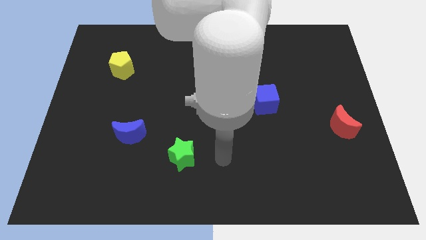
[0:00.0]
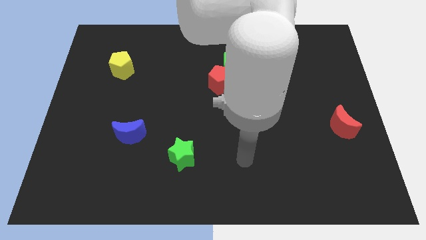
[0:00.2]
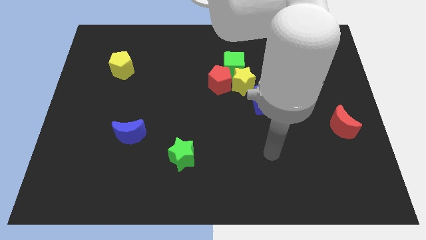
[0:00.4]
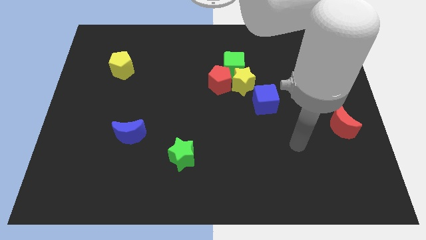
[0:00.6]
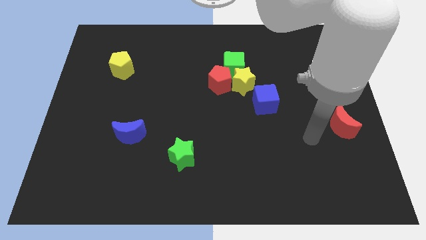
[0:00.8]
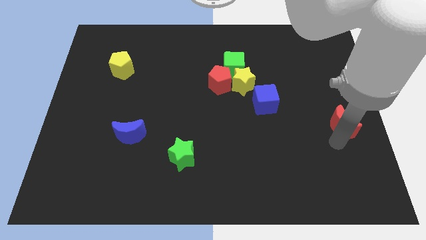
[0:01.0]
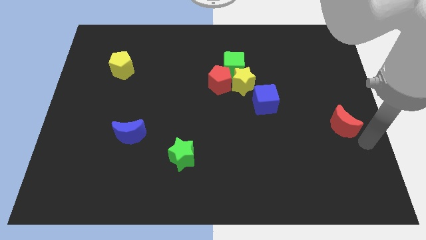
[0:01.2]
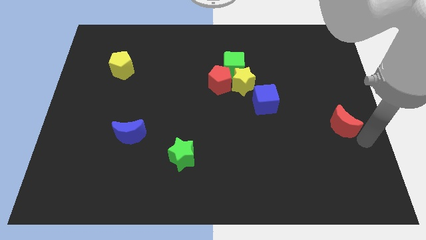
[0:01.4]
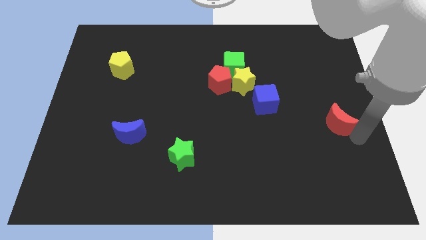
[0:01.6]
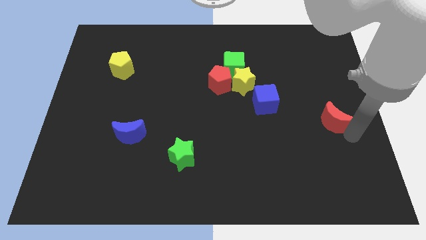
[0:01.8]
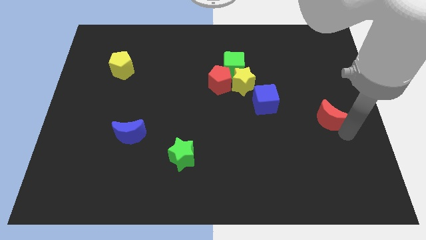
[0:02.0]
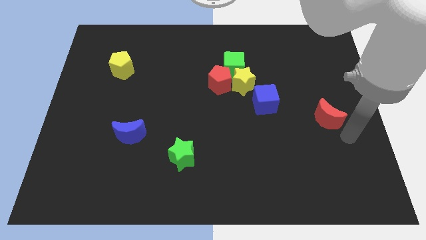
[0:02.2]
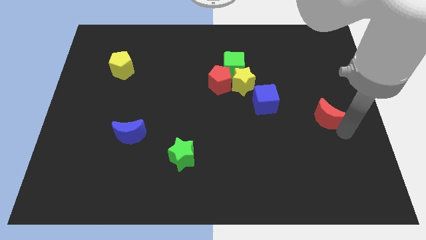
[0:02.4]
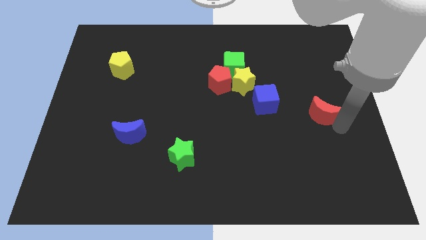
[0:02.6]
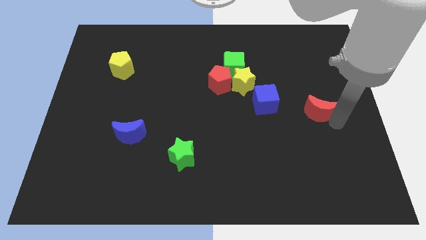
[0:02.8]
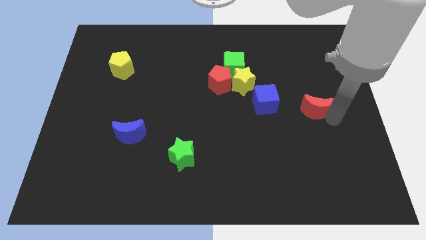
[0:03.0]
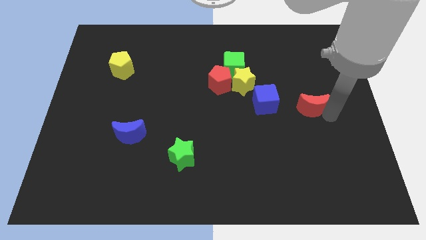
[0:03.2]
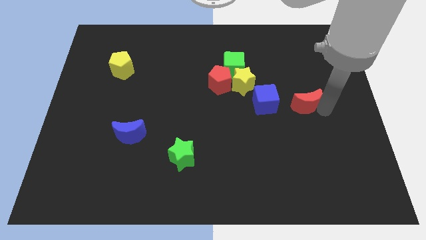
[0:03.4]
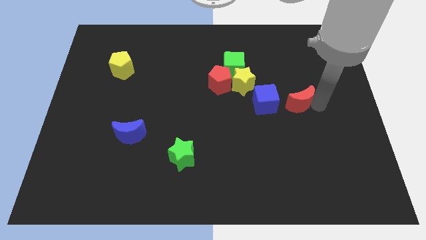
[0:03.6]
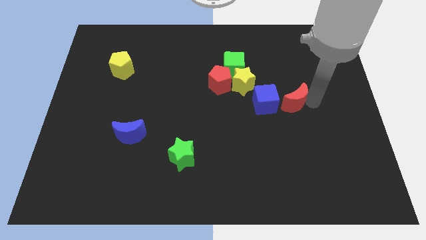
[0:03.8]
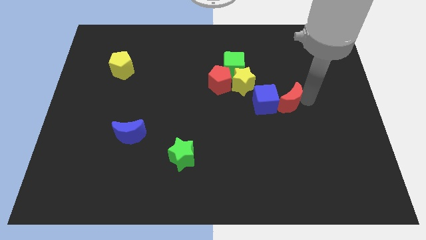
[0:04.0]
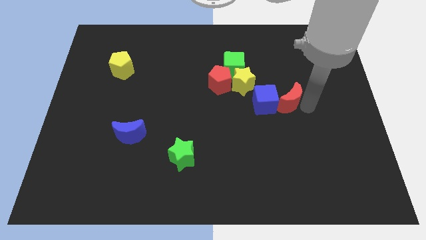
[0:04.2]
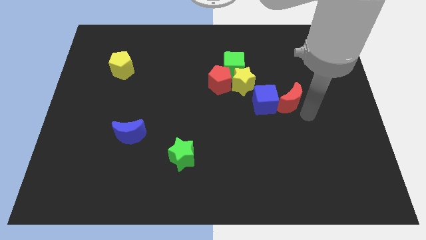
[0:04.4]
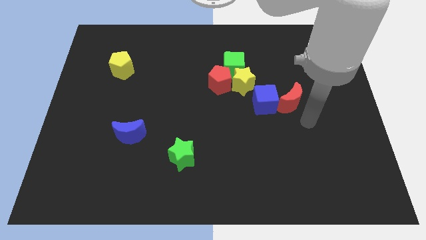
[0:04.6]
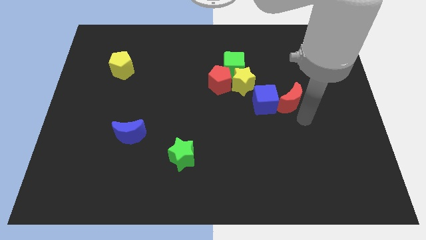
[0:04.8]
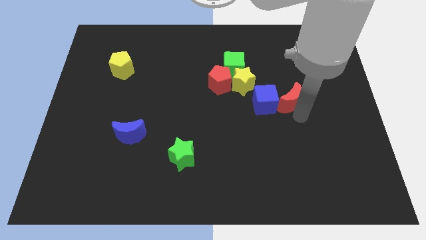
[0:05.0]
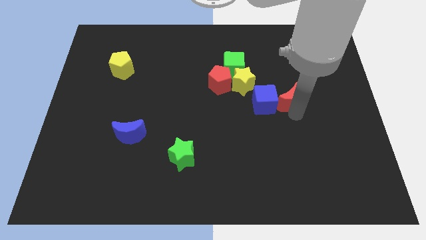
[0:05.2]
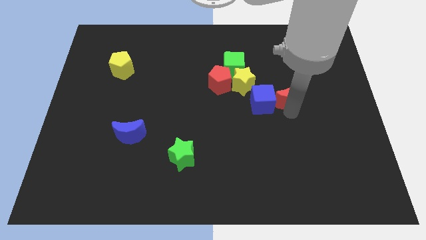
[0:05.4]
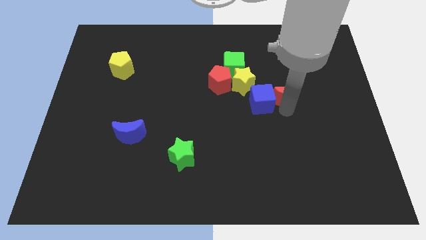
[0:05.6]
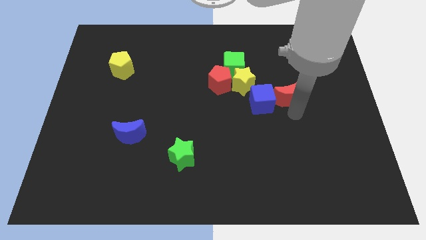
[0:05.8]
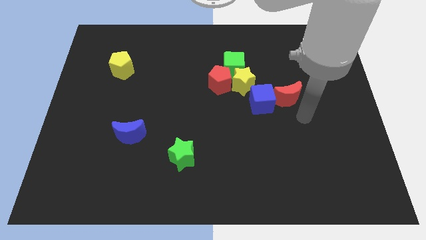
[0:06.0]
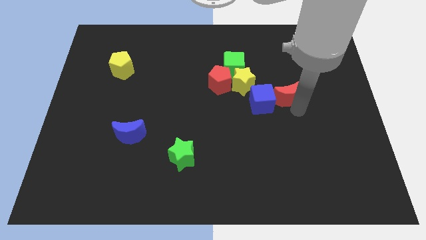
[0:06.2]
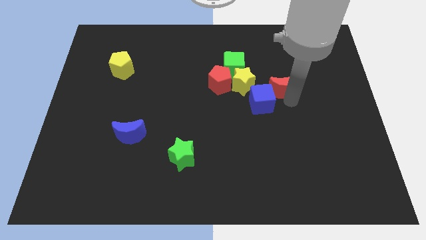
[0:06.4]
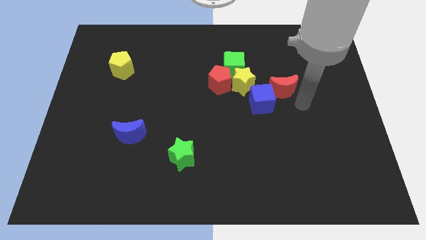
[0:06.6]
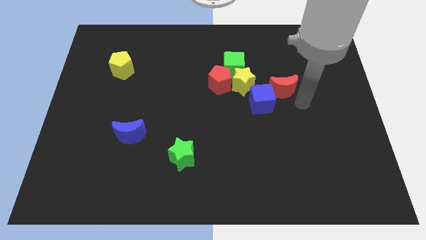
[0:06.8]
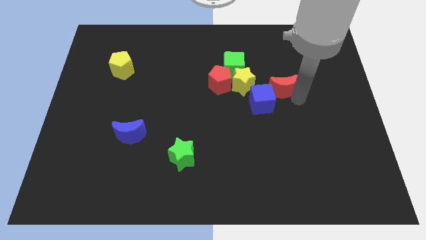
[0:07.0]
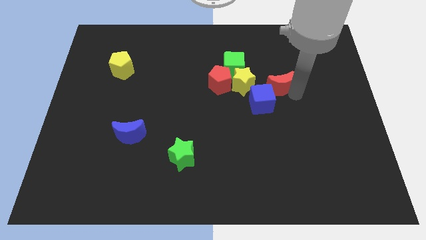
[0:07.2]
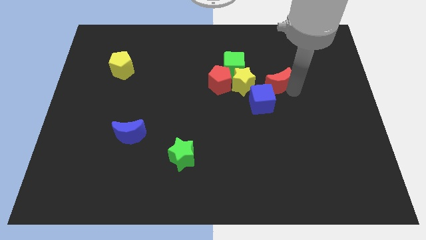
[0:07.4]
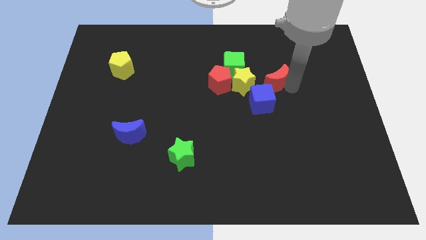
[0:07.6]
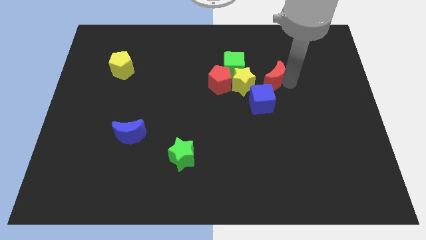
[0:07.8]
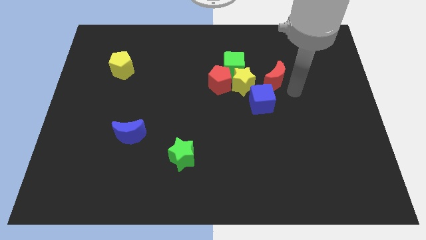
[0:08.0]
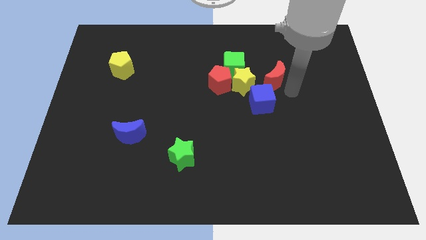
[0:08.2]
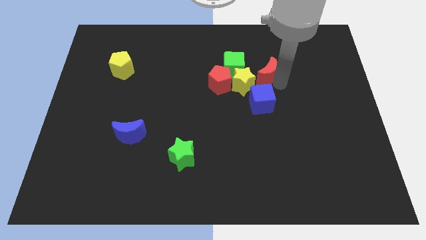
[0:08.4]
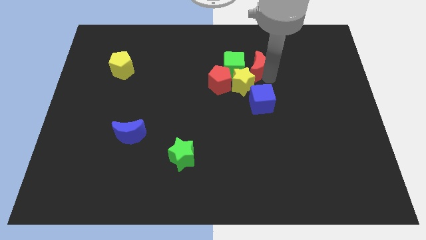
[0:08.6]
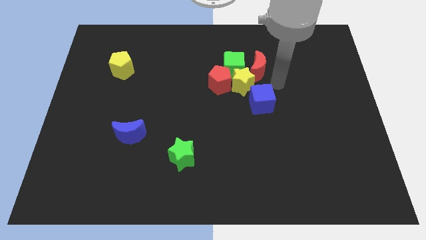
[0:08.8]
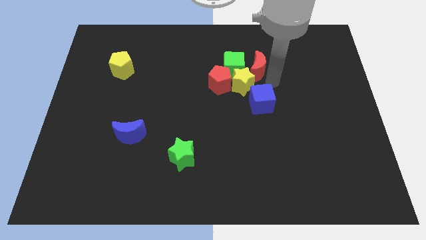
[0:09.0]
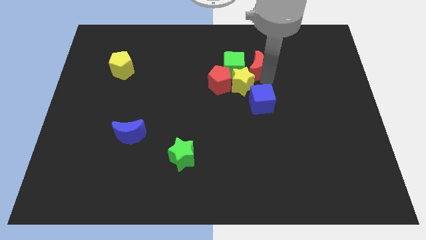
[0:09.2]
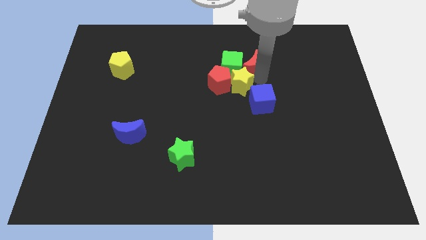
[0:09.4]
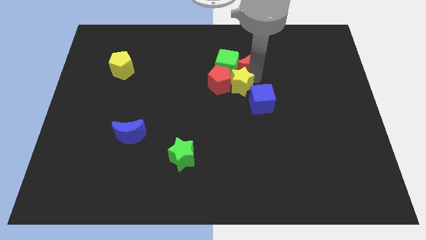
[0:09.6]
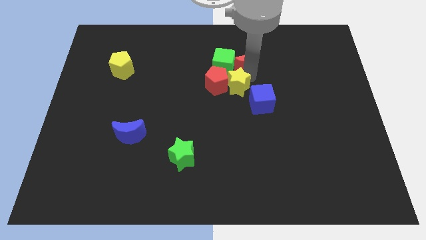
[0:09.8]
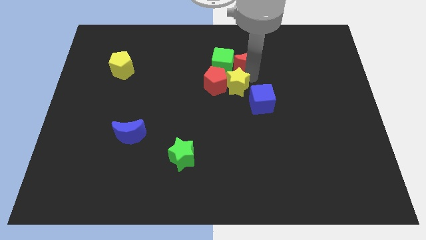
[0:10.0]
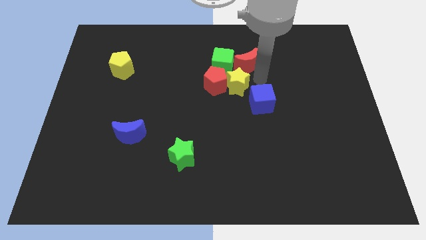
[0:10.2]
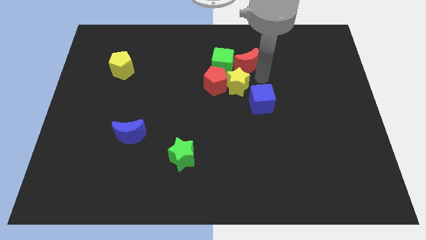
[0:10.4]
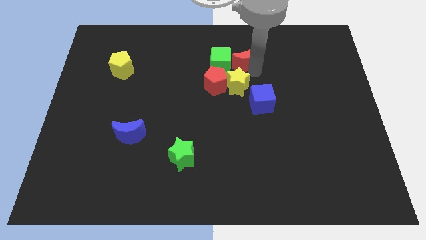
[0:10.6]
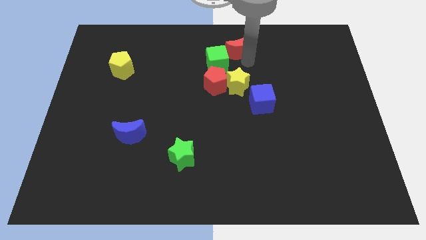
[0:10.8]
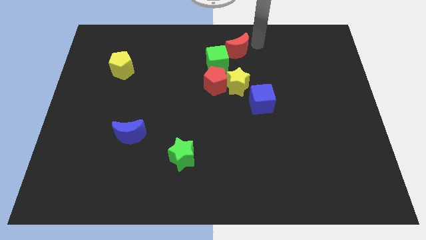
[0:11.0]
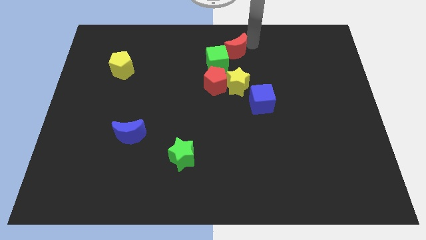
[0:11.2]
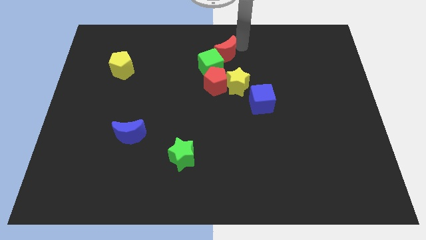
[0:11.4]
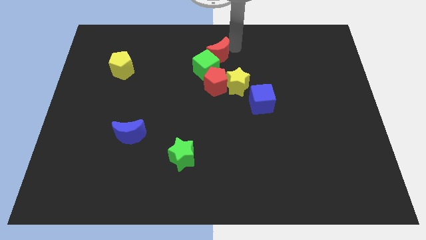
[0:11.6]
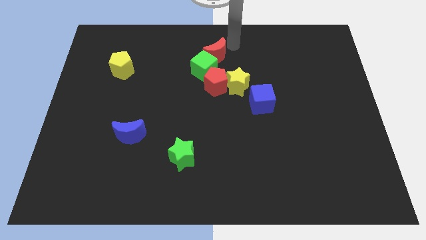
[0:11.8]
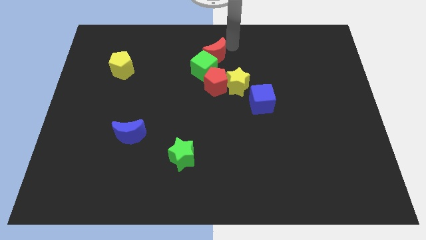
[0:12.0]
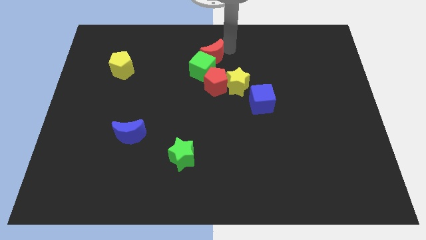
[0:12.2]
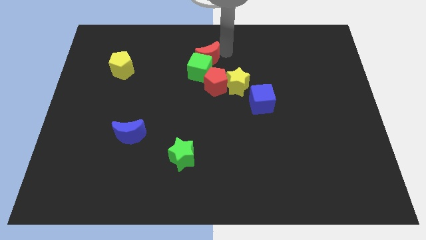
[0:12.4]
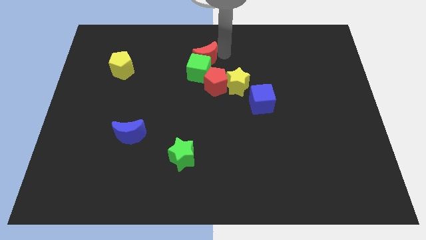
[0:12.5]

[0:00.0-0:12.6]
push the red moon diagonally up and to the left of the red pentagon

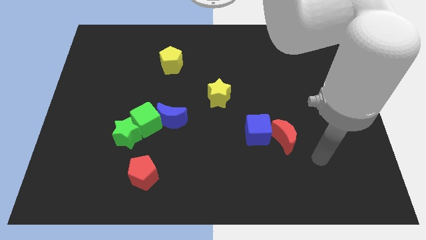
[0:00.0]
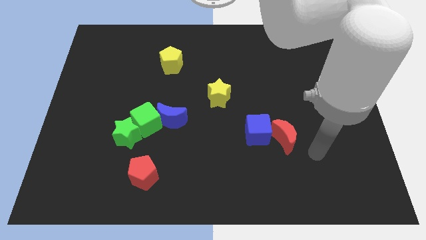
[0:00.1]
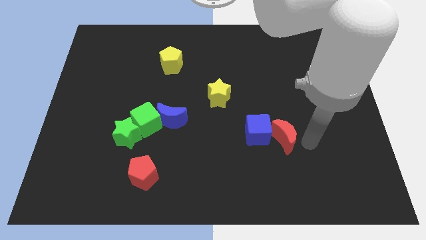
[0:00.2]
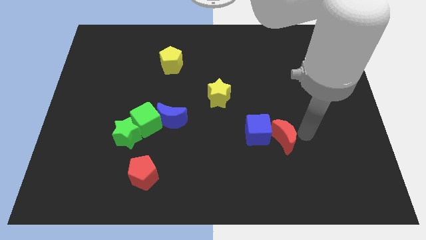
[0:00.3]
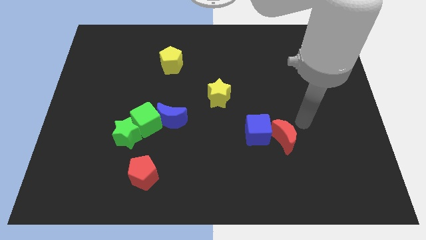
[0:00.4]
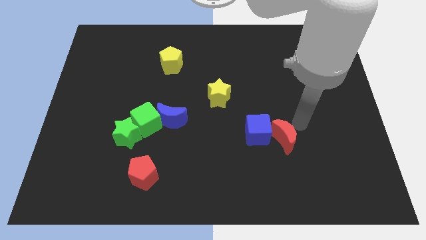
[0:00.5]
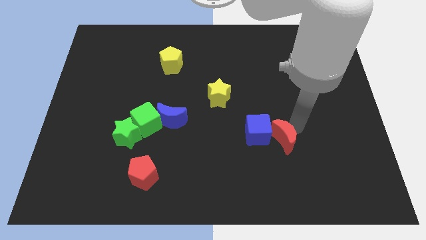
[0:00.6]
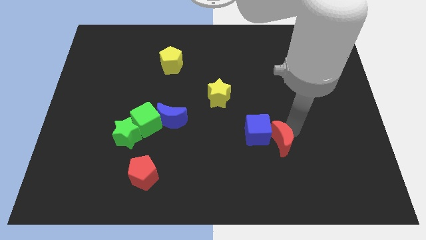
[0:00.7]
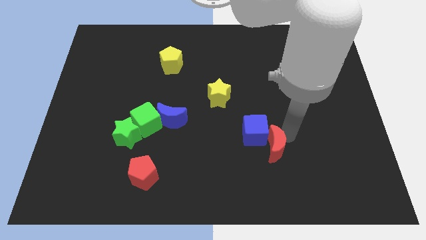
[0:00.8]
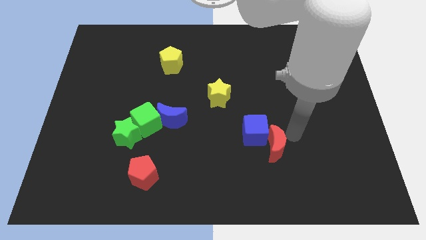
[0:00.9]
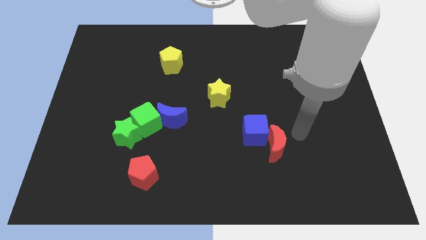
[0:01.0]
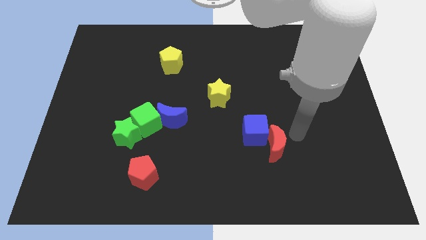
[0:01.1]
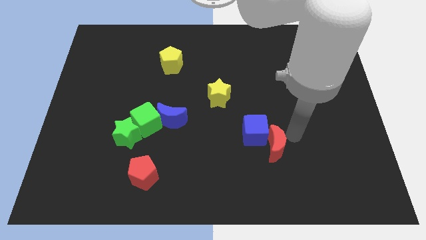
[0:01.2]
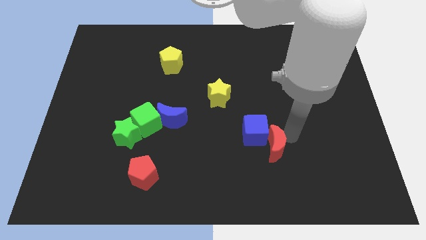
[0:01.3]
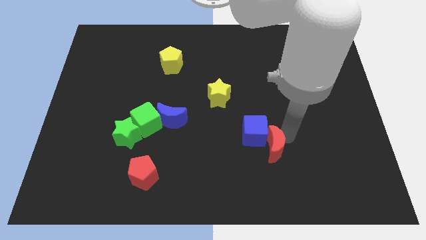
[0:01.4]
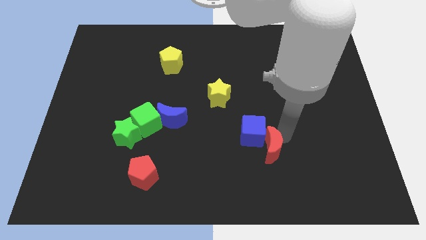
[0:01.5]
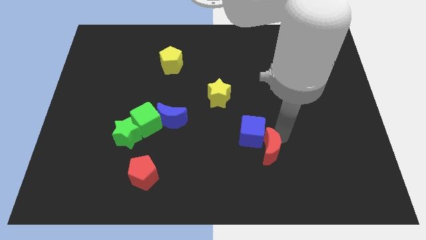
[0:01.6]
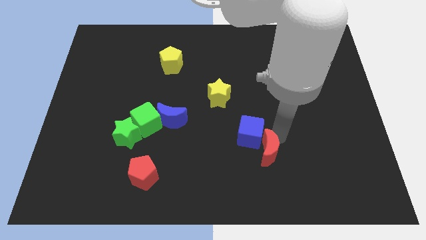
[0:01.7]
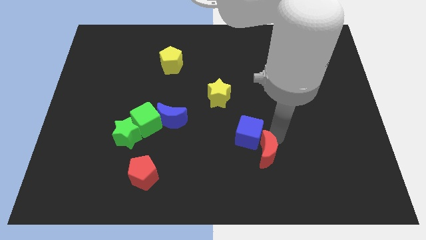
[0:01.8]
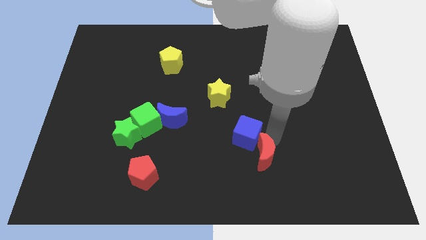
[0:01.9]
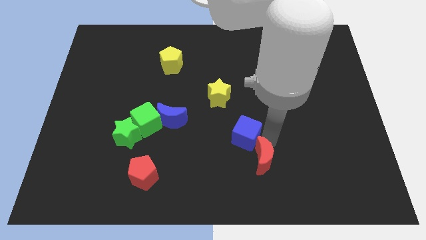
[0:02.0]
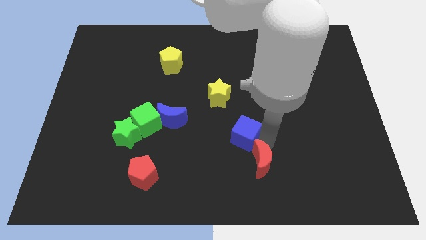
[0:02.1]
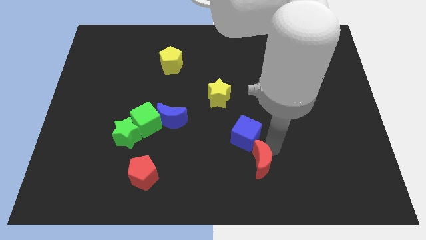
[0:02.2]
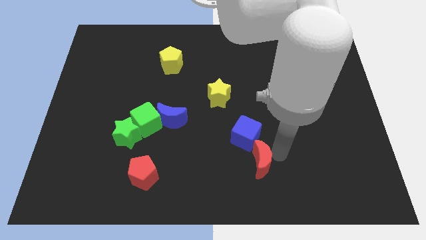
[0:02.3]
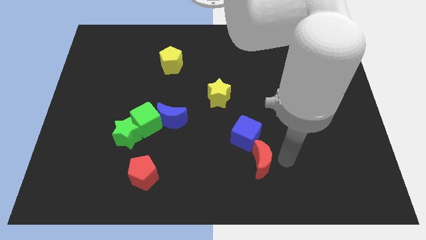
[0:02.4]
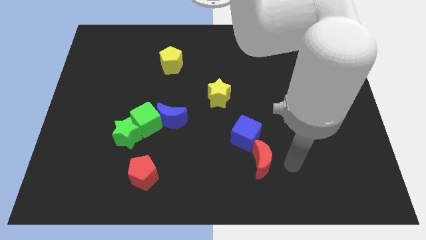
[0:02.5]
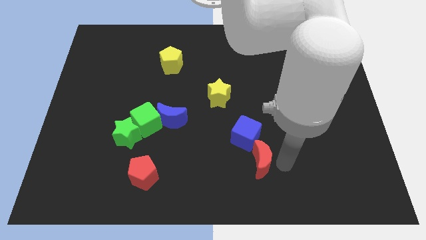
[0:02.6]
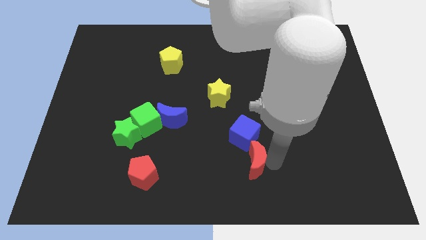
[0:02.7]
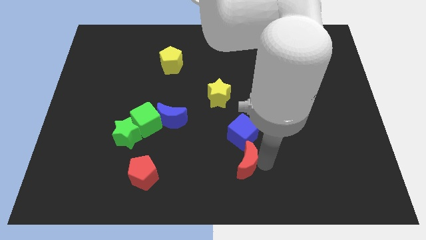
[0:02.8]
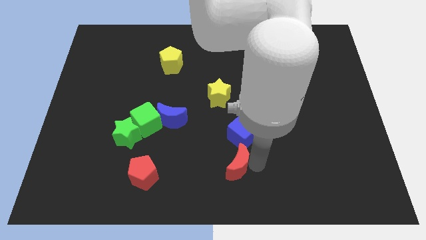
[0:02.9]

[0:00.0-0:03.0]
slide the red moon diagonally down and to the left of the blue cube
